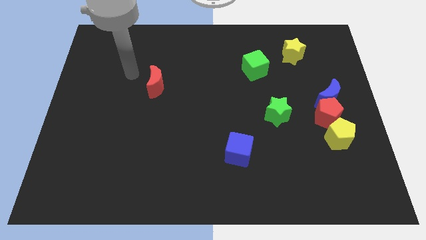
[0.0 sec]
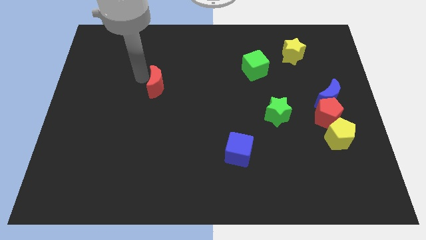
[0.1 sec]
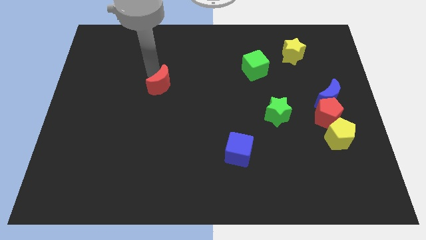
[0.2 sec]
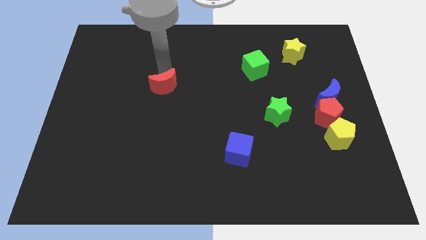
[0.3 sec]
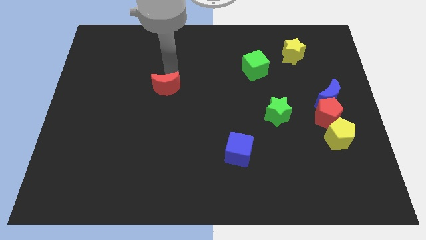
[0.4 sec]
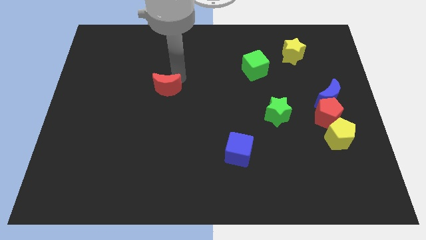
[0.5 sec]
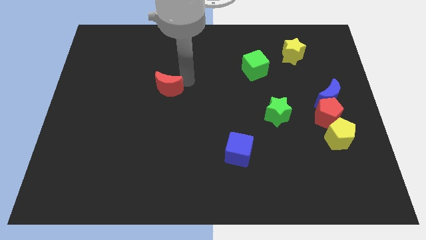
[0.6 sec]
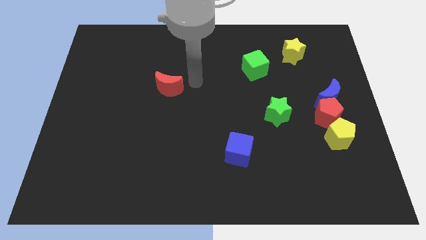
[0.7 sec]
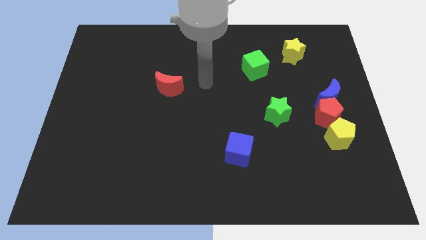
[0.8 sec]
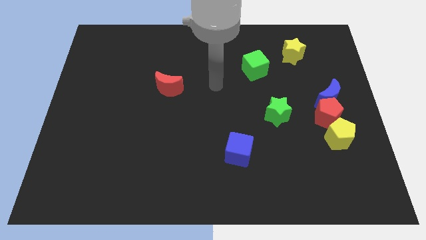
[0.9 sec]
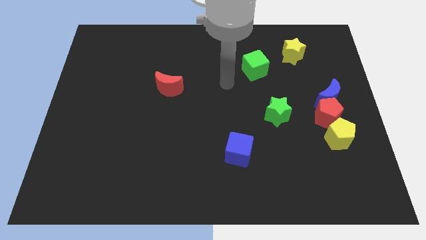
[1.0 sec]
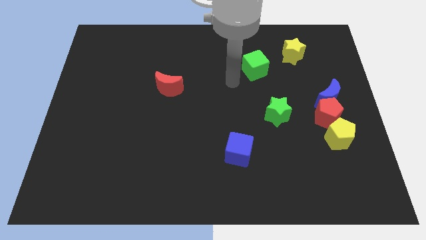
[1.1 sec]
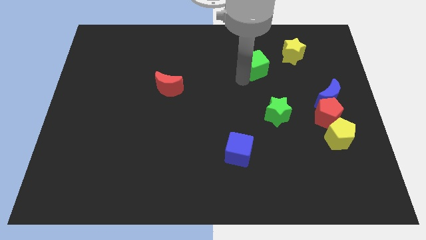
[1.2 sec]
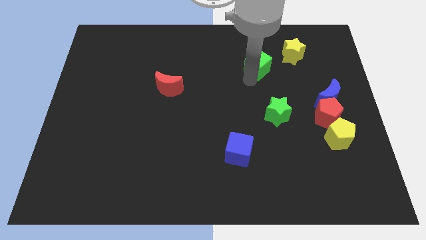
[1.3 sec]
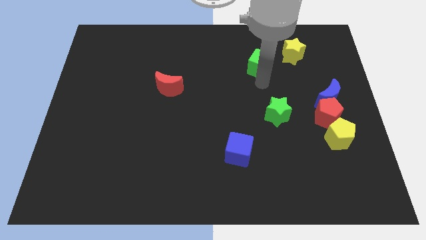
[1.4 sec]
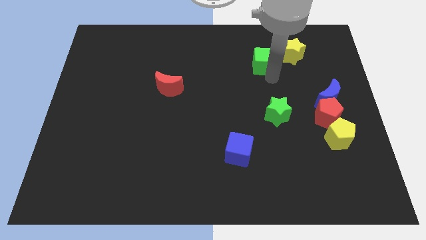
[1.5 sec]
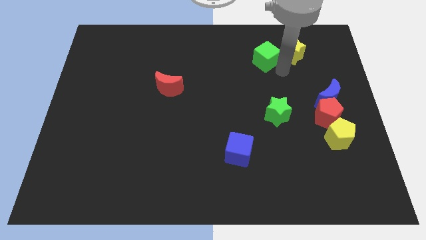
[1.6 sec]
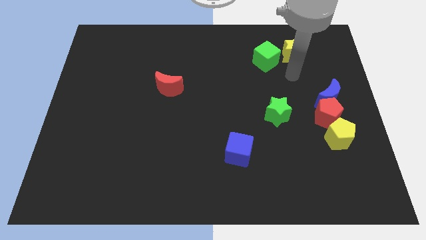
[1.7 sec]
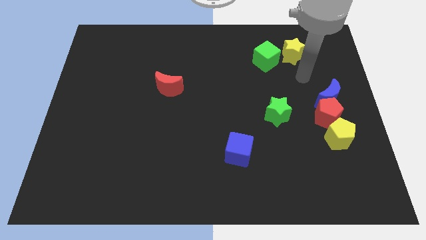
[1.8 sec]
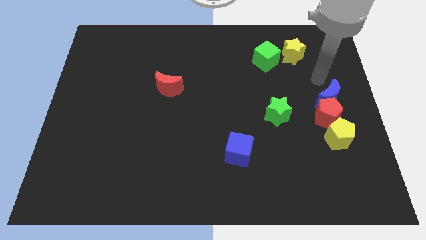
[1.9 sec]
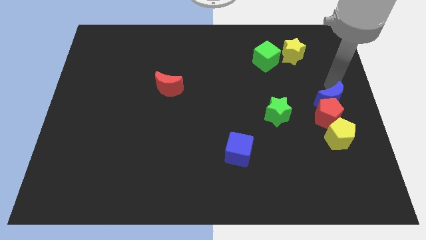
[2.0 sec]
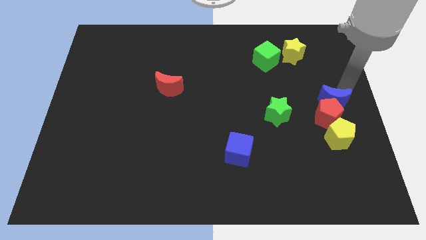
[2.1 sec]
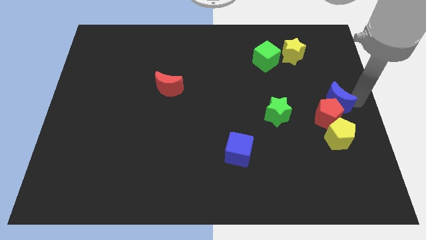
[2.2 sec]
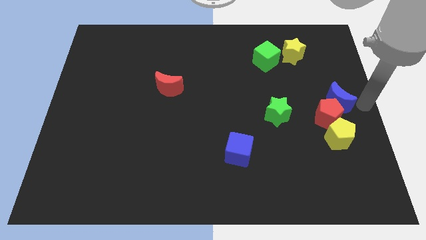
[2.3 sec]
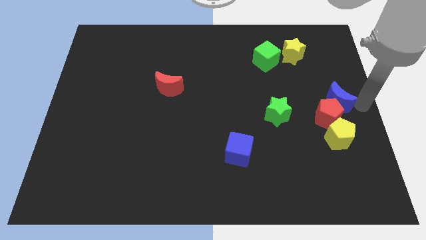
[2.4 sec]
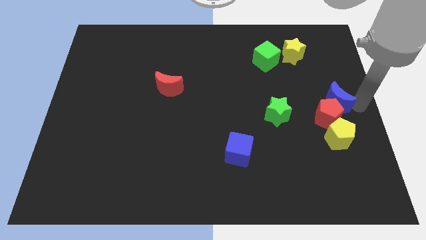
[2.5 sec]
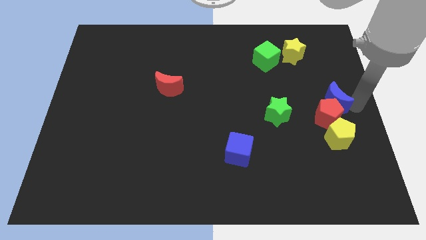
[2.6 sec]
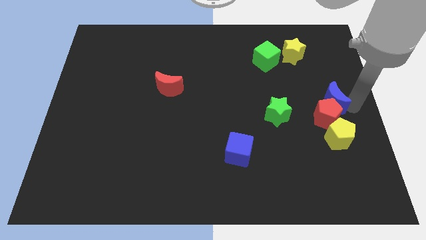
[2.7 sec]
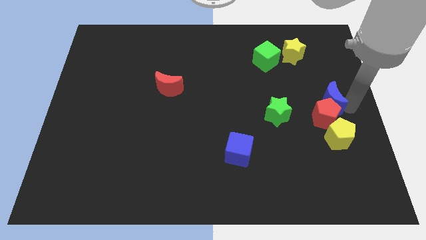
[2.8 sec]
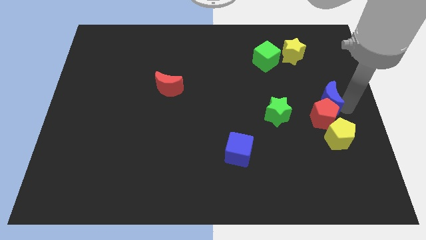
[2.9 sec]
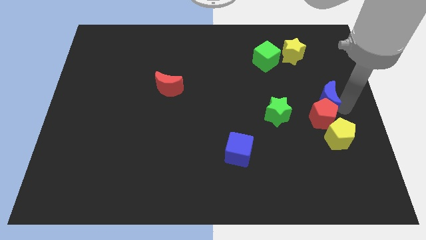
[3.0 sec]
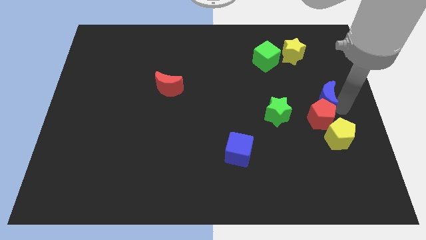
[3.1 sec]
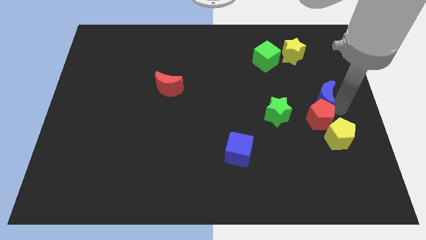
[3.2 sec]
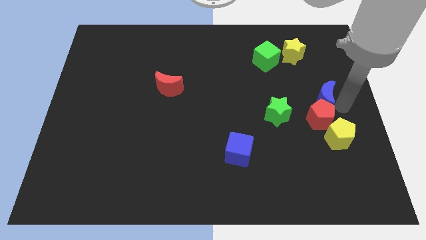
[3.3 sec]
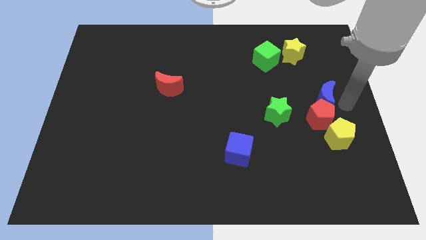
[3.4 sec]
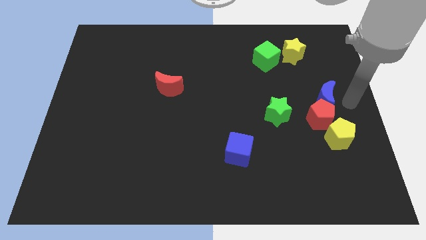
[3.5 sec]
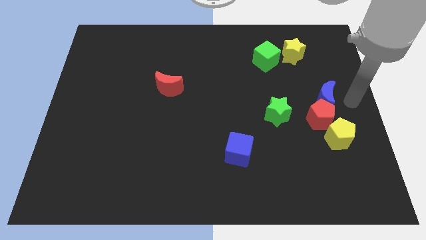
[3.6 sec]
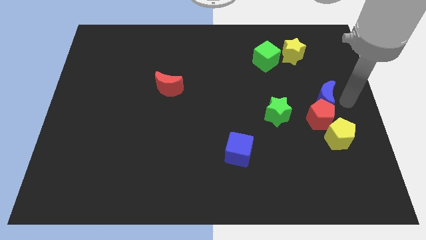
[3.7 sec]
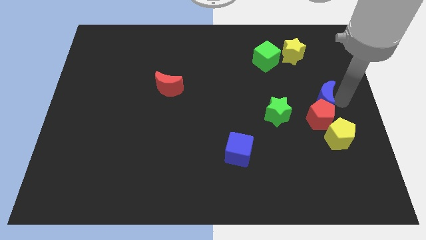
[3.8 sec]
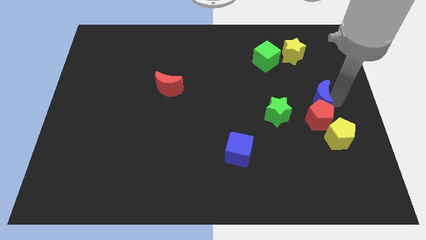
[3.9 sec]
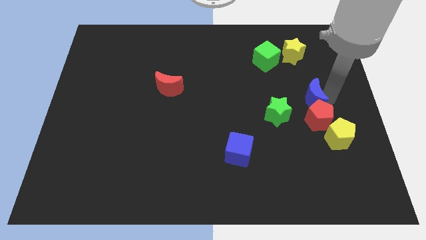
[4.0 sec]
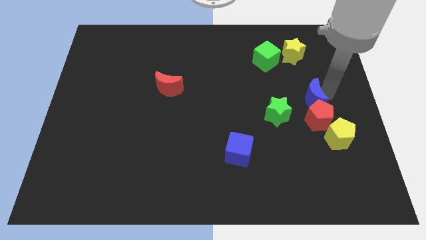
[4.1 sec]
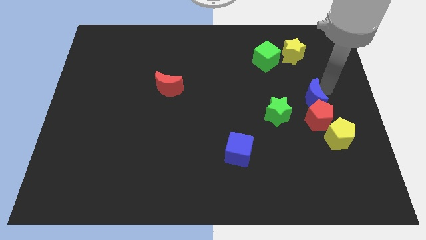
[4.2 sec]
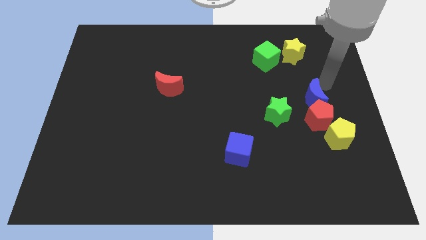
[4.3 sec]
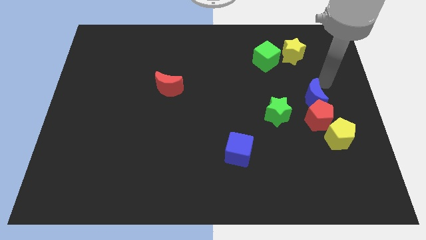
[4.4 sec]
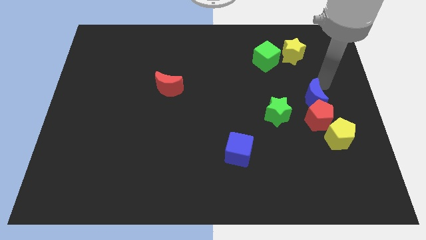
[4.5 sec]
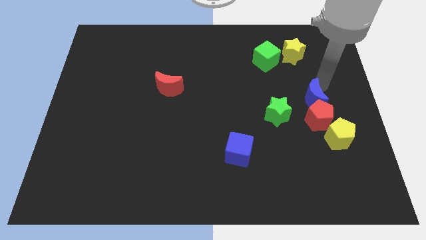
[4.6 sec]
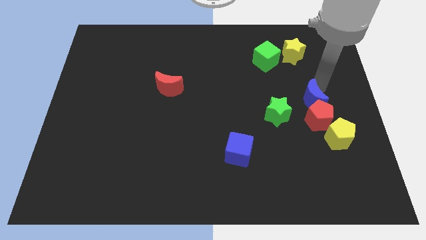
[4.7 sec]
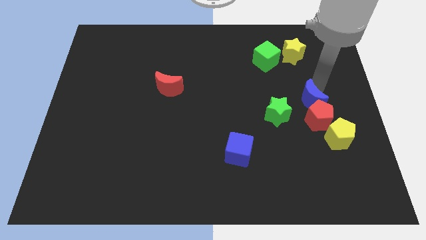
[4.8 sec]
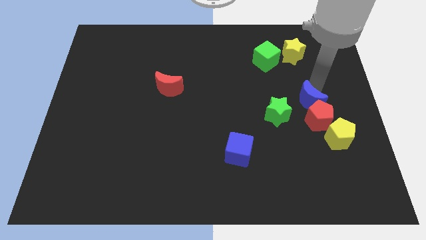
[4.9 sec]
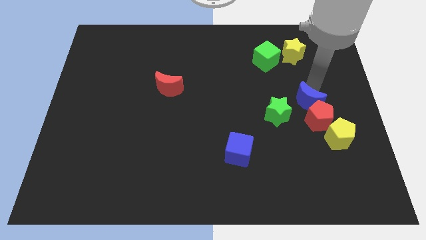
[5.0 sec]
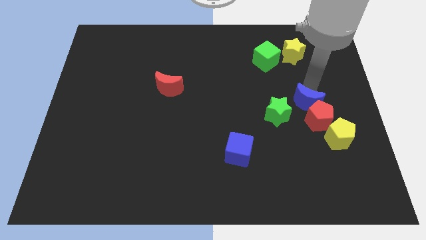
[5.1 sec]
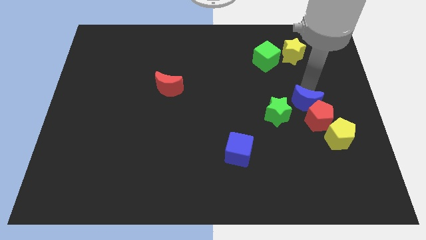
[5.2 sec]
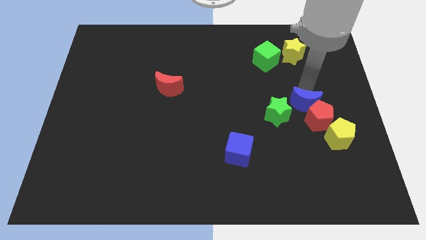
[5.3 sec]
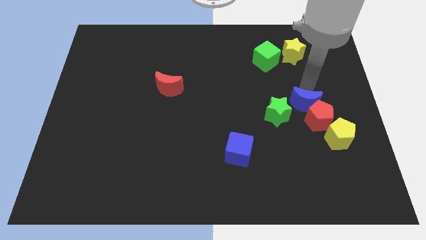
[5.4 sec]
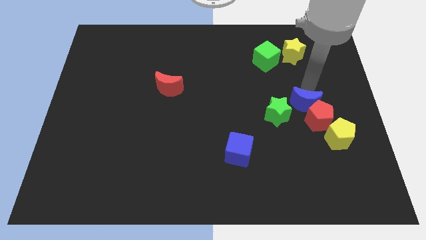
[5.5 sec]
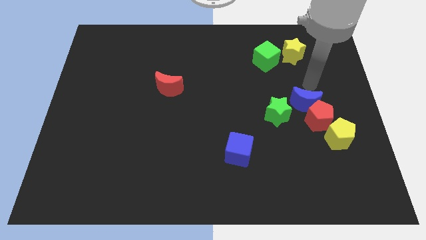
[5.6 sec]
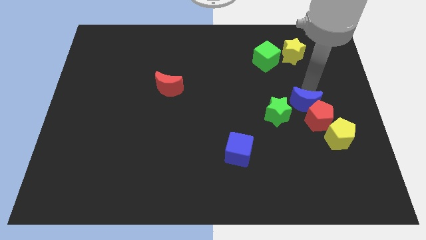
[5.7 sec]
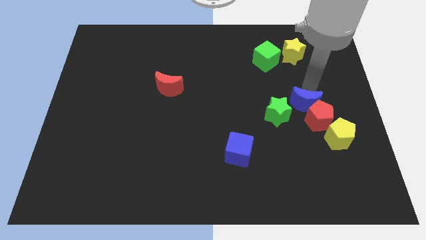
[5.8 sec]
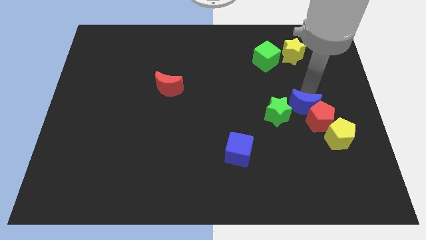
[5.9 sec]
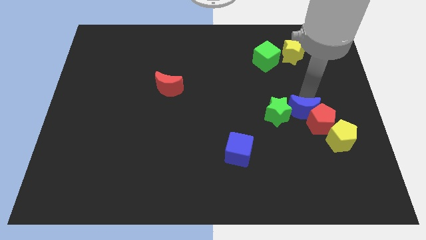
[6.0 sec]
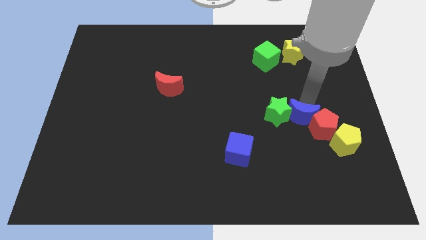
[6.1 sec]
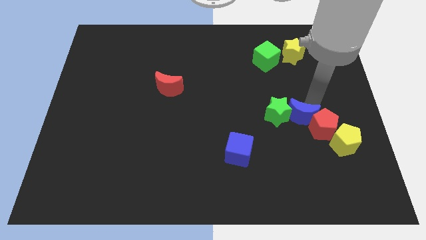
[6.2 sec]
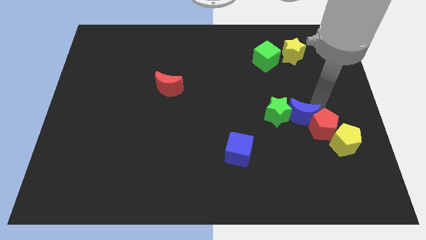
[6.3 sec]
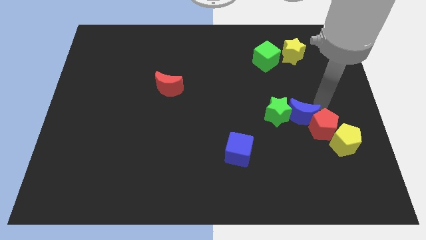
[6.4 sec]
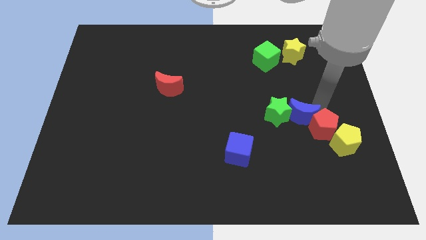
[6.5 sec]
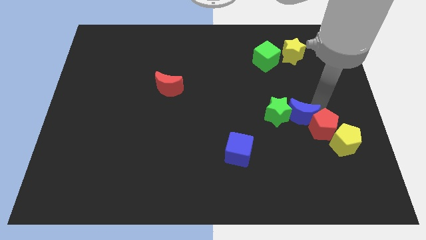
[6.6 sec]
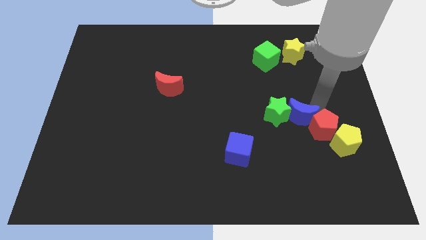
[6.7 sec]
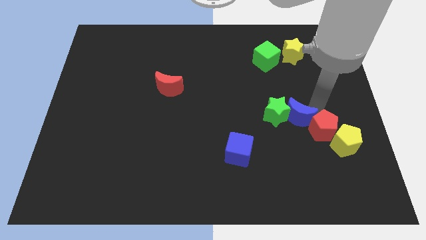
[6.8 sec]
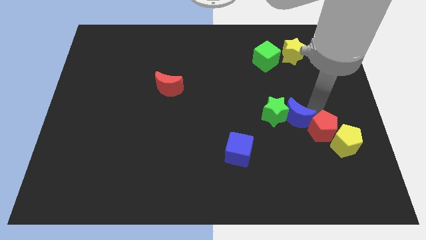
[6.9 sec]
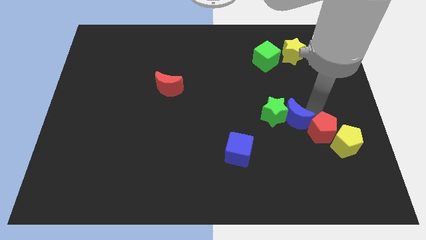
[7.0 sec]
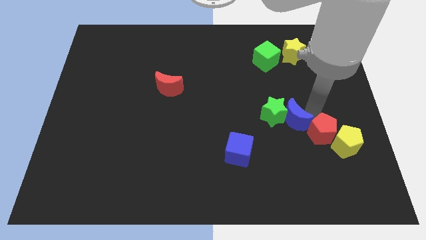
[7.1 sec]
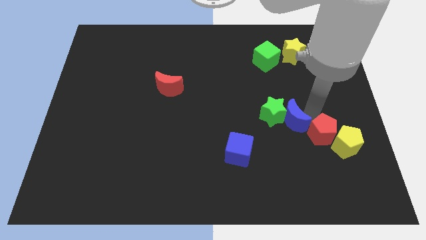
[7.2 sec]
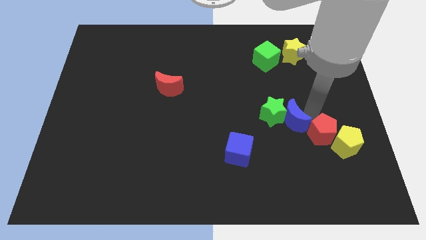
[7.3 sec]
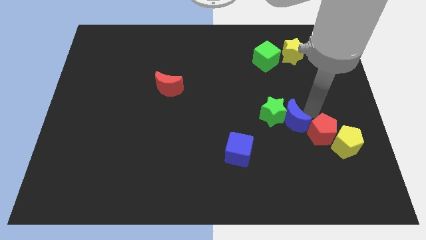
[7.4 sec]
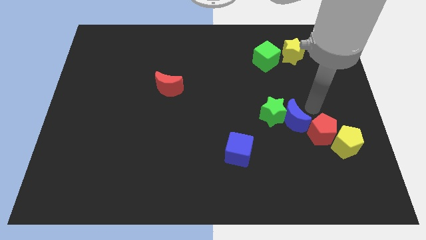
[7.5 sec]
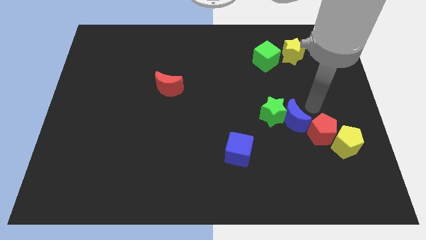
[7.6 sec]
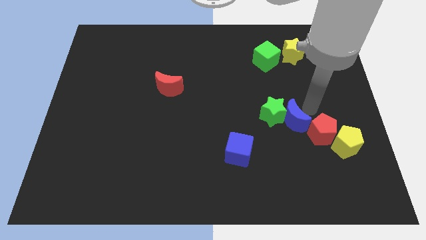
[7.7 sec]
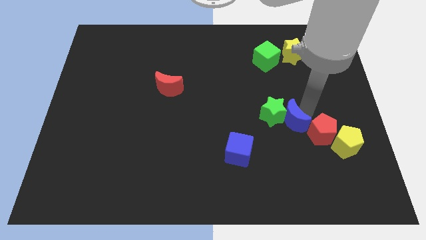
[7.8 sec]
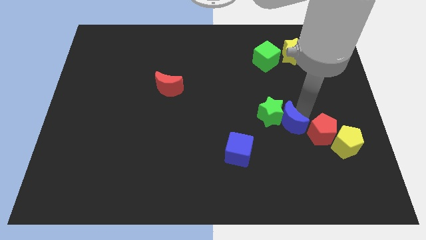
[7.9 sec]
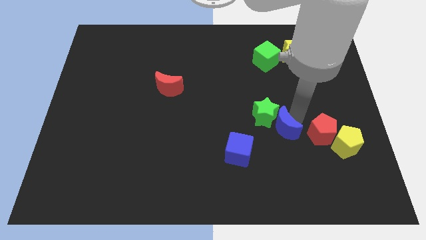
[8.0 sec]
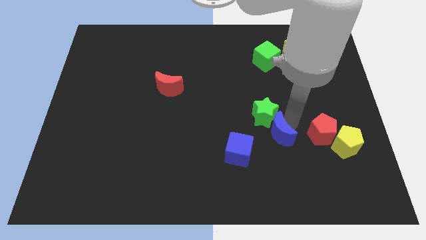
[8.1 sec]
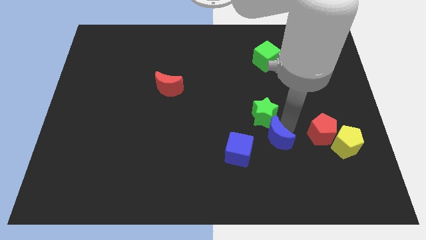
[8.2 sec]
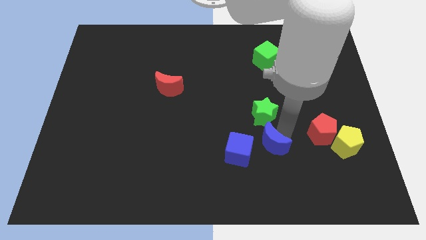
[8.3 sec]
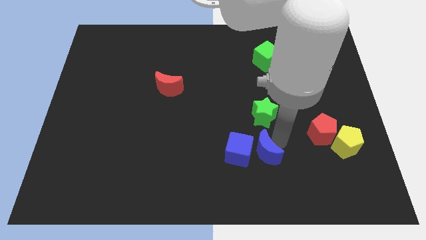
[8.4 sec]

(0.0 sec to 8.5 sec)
move the blue moon next to the blue cube
